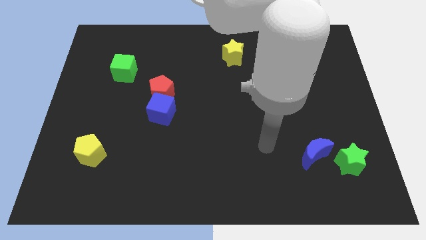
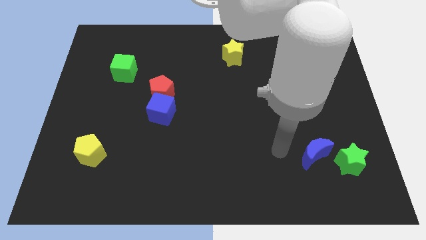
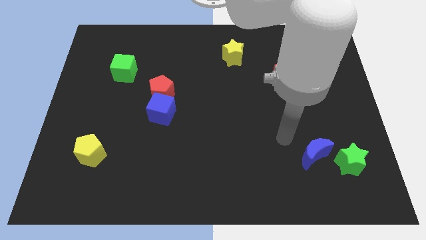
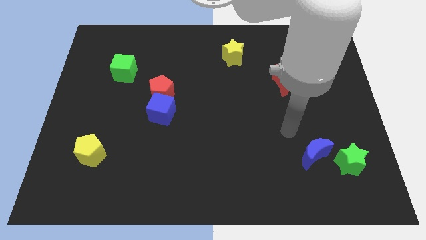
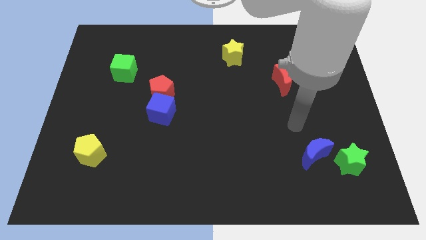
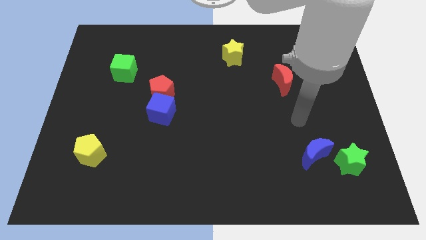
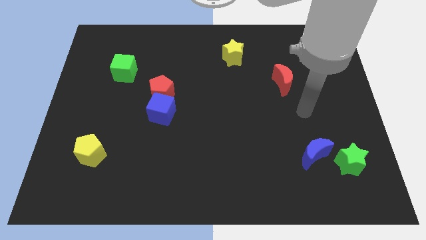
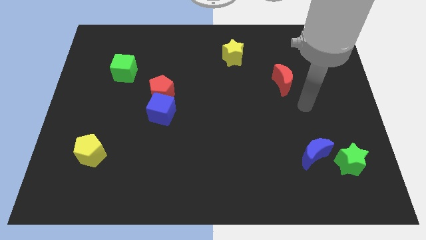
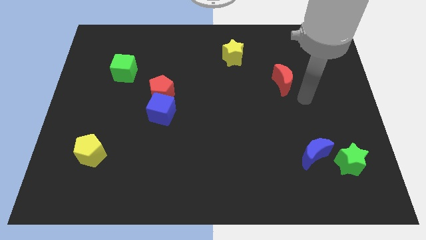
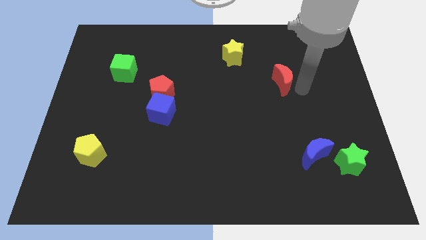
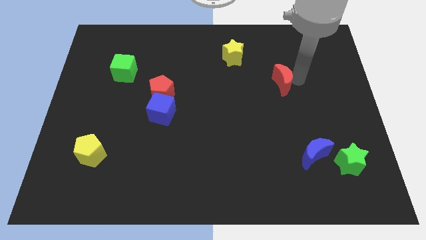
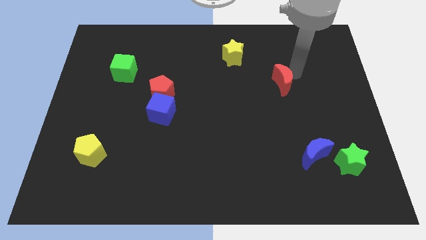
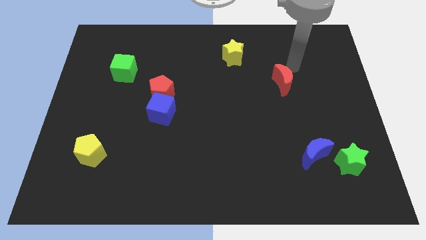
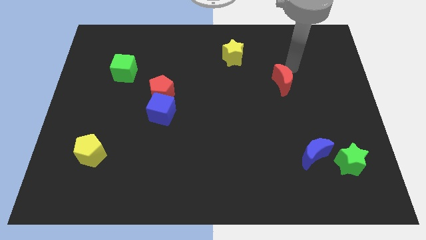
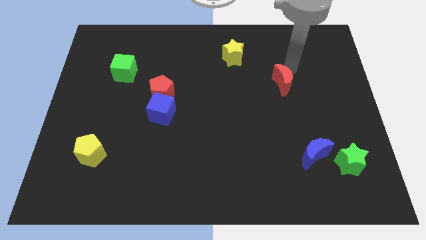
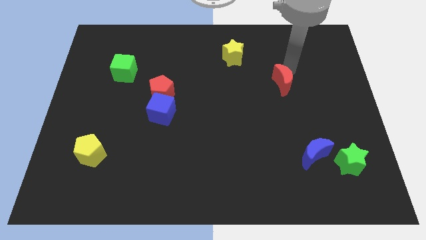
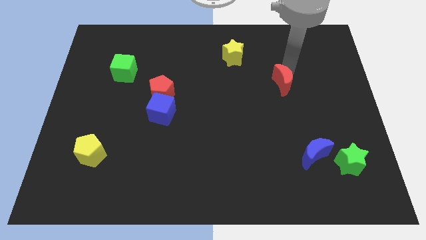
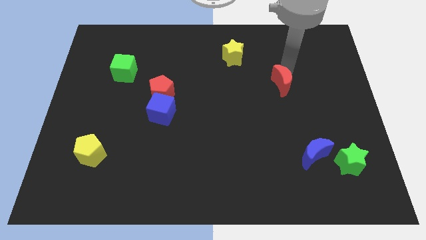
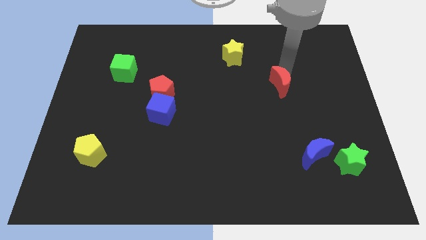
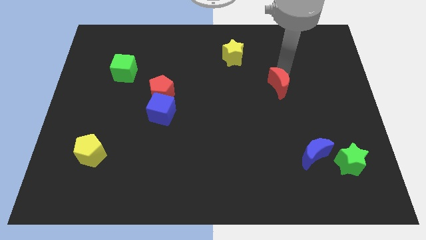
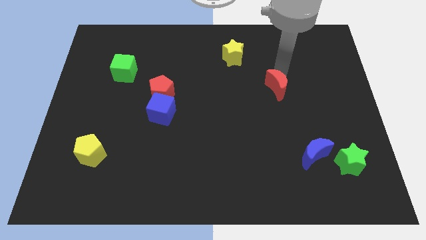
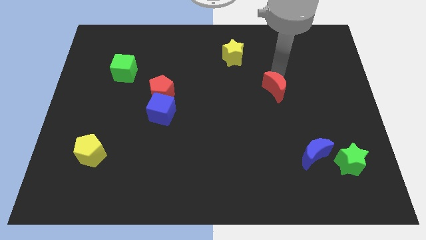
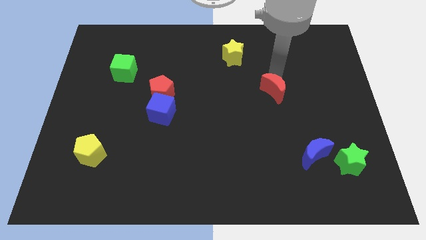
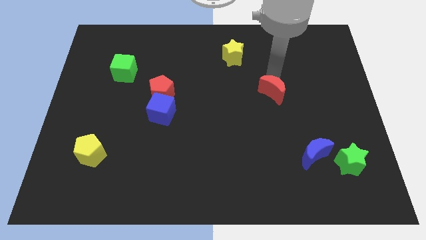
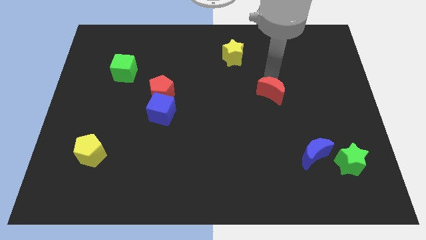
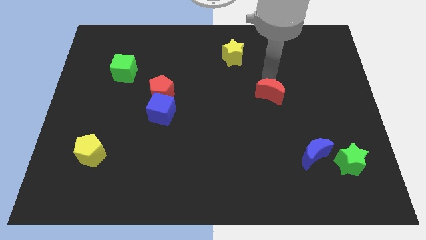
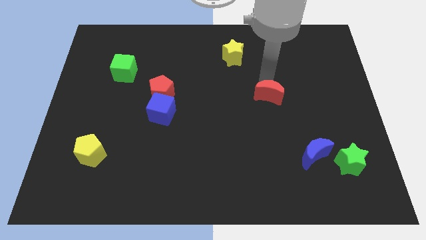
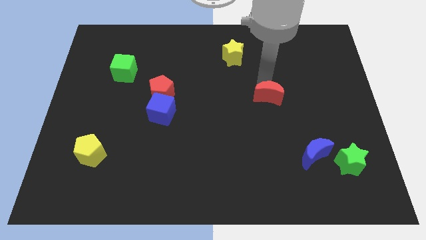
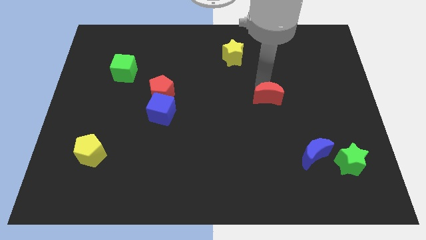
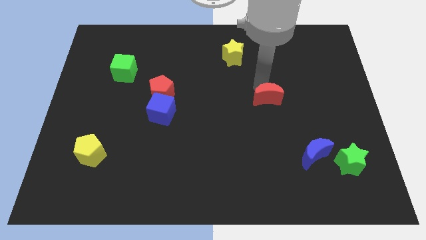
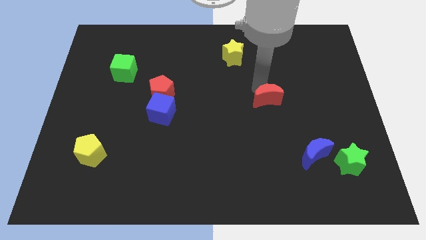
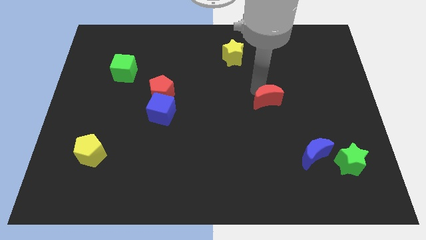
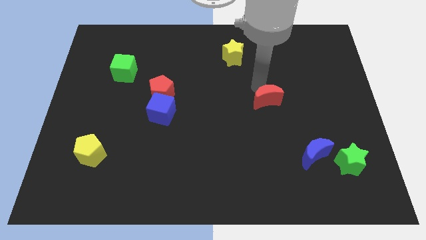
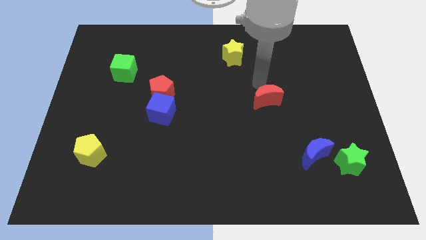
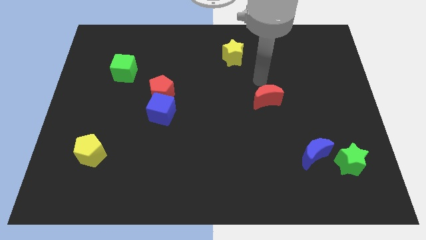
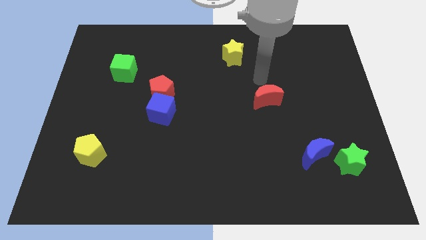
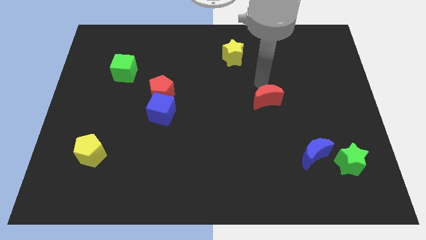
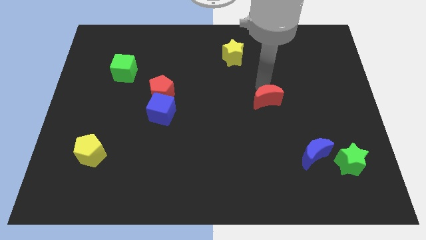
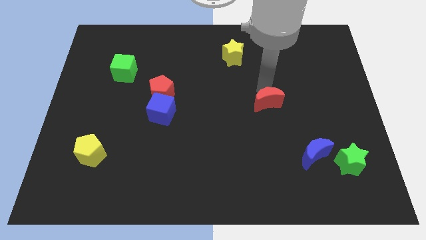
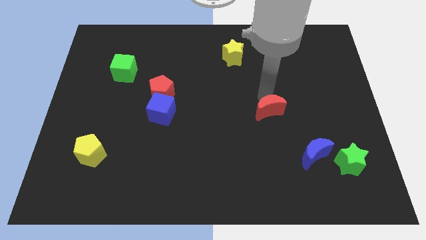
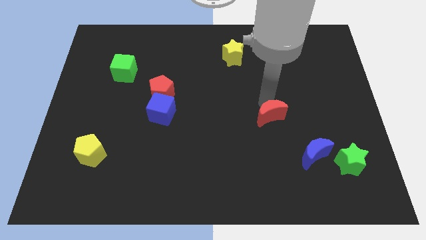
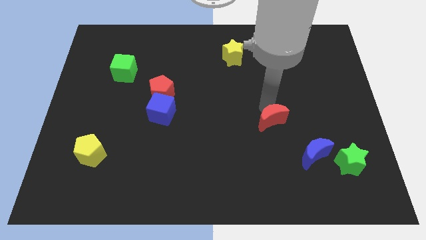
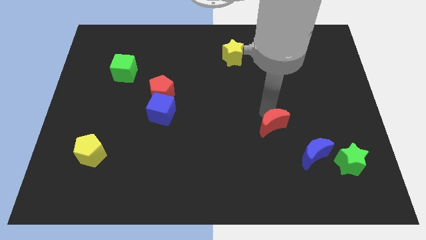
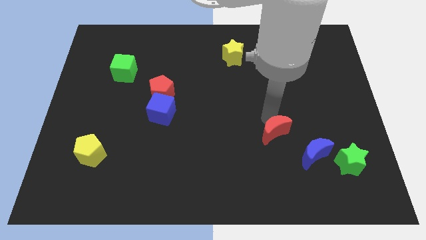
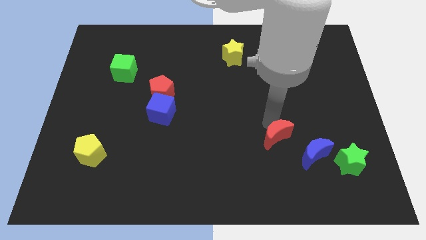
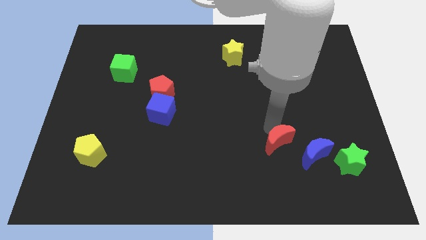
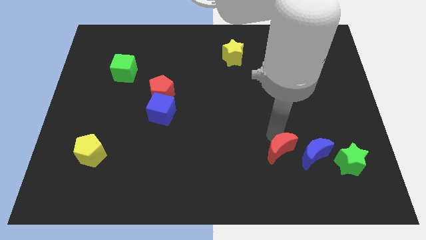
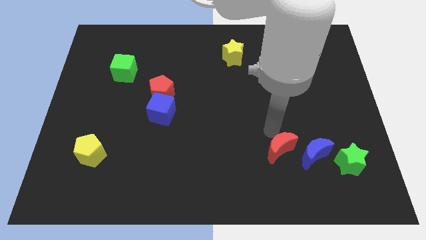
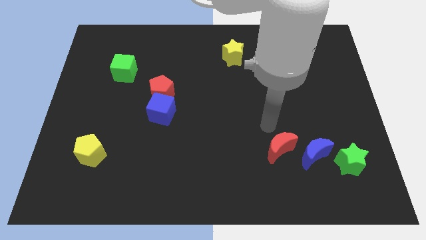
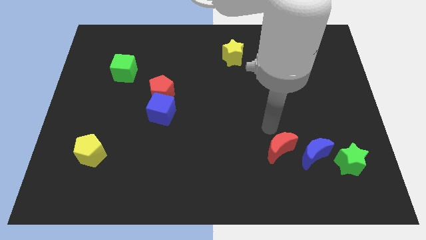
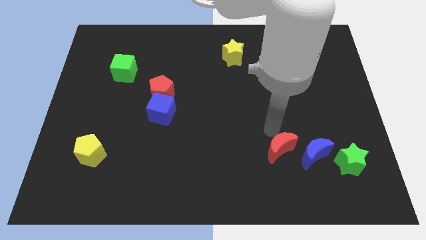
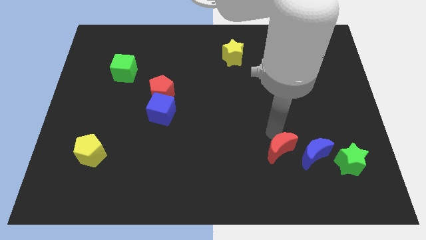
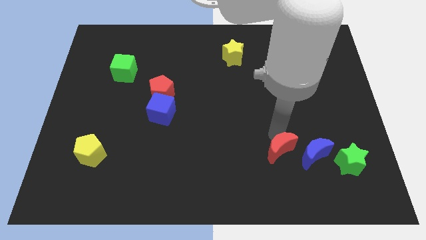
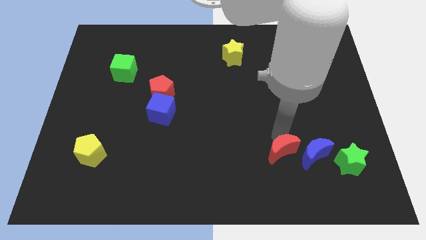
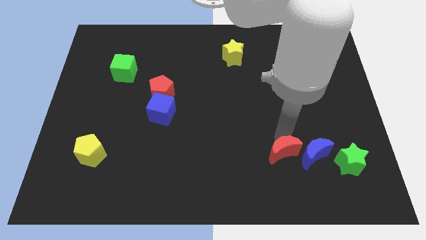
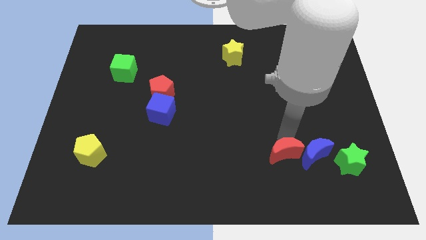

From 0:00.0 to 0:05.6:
move the red moon to the bottom left side of the blue moon
